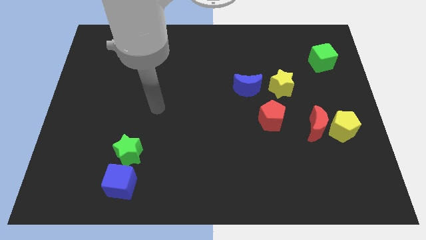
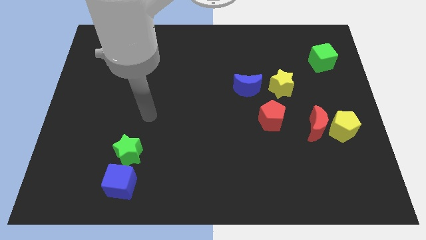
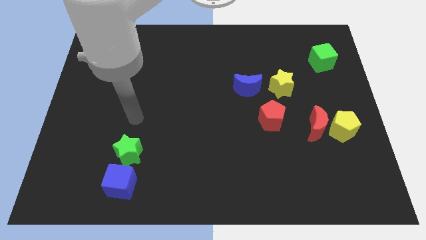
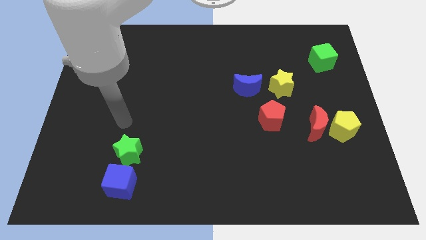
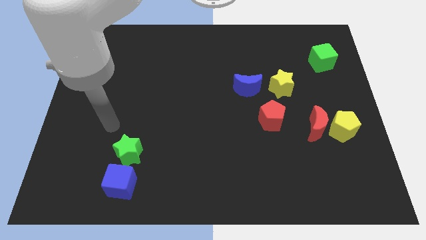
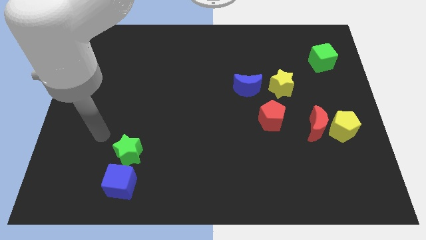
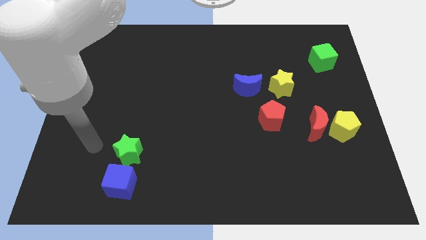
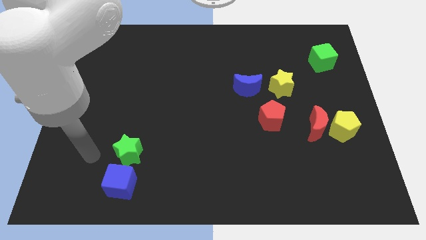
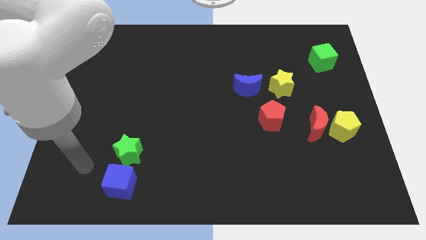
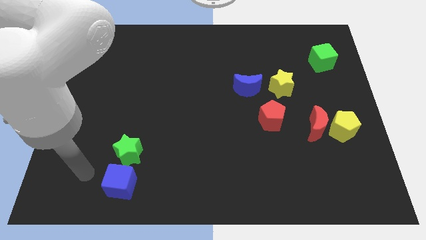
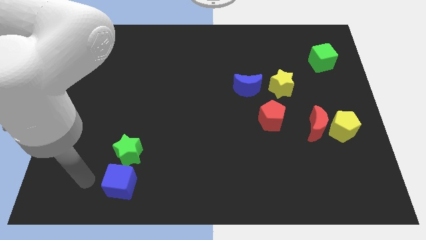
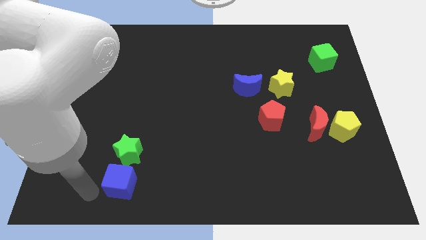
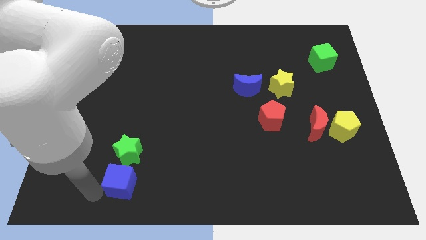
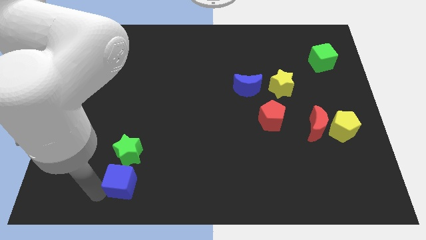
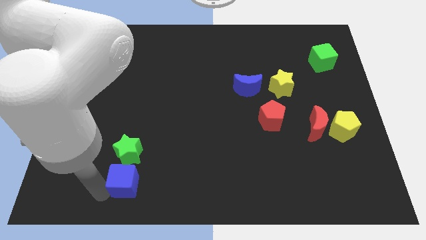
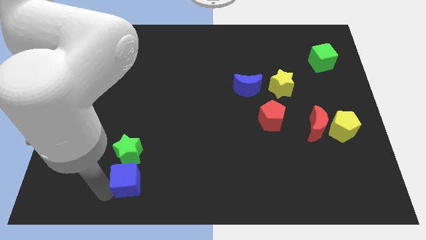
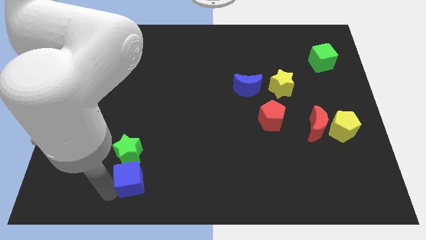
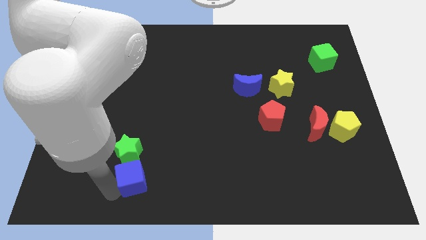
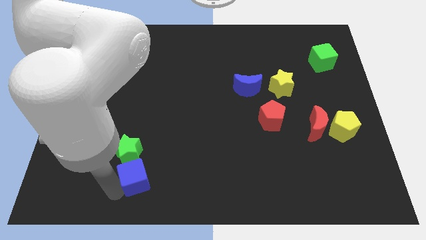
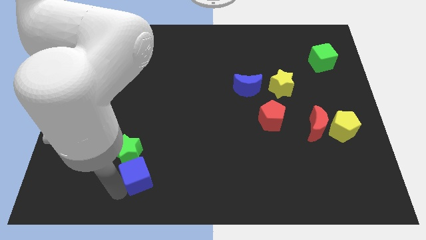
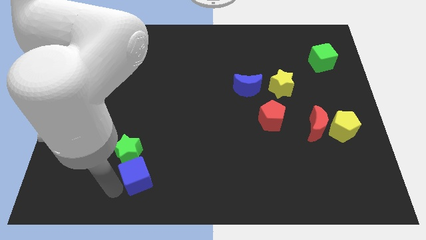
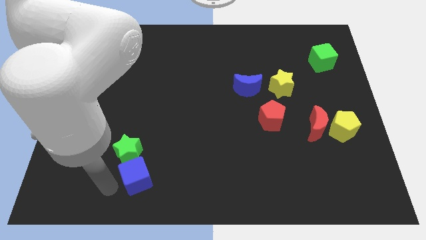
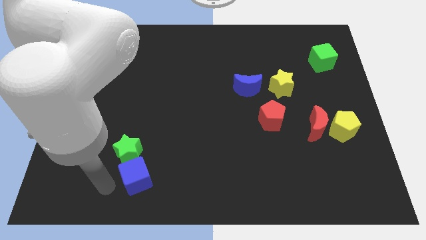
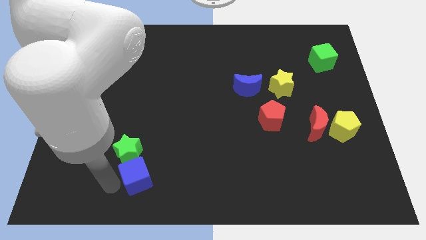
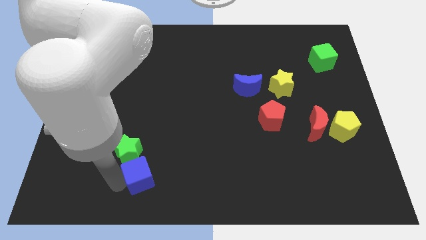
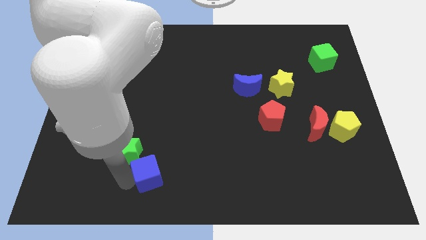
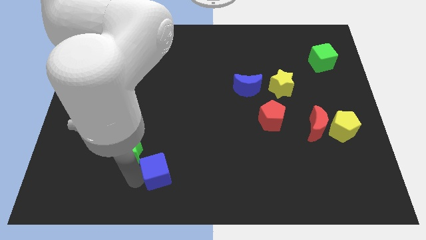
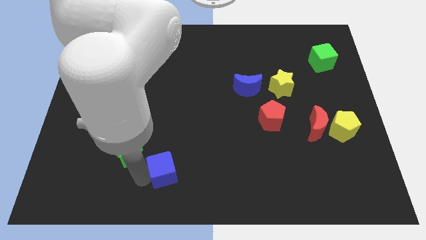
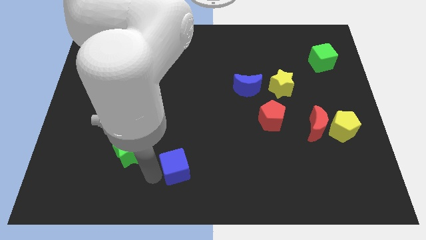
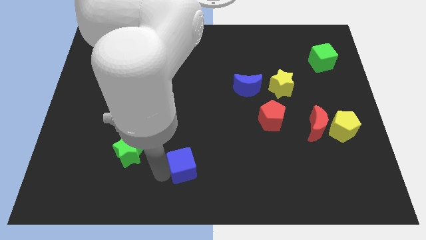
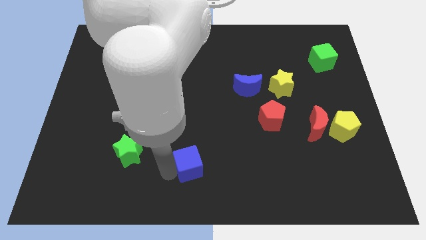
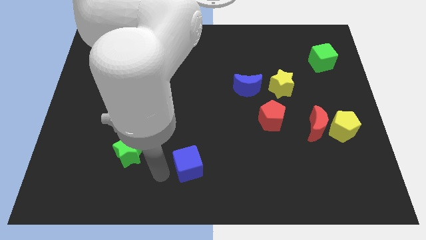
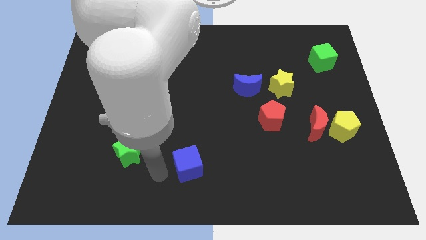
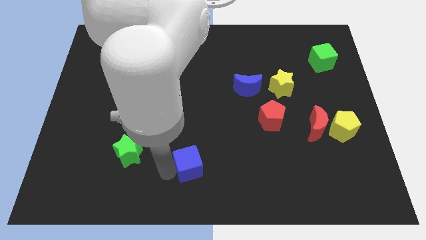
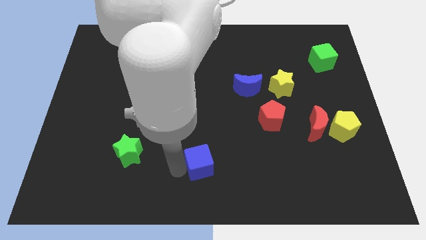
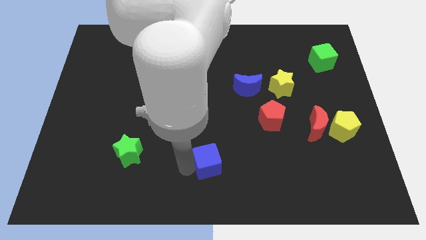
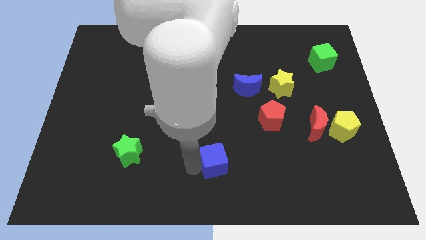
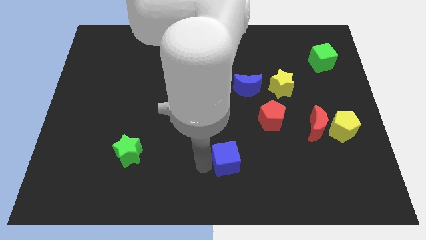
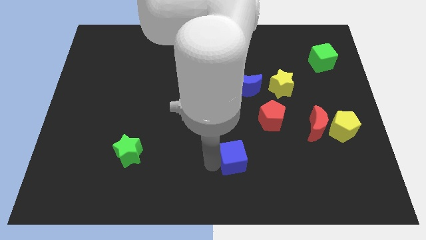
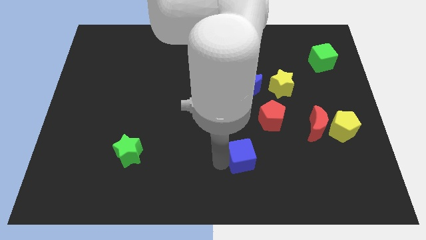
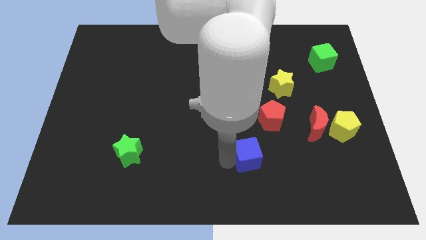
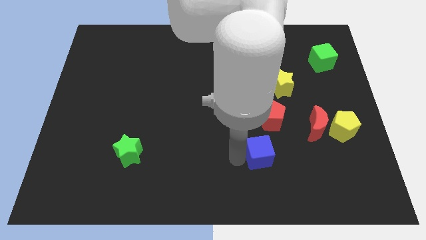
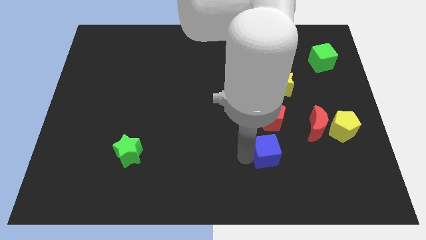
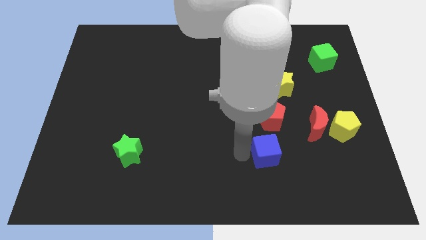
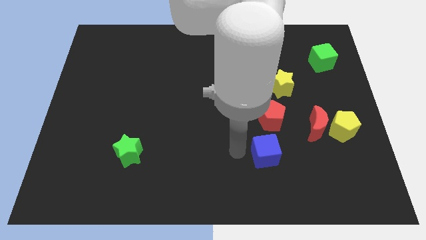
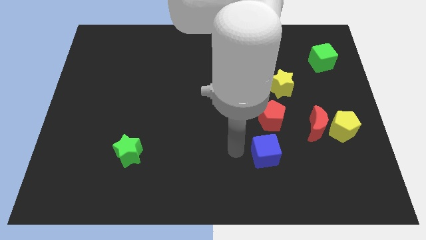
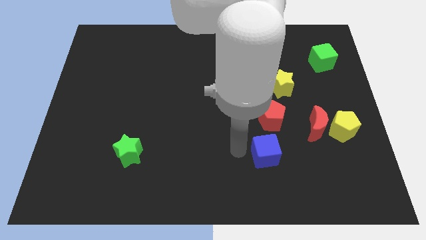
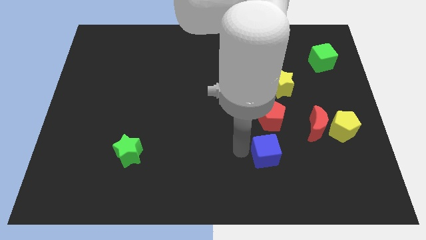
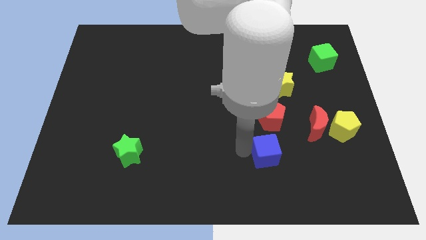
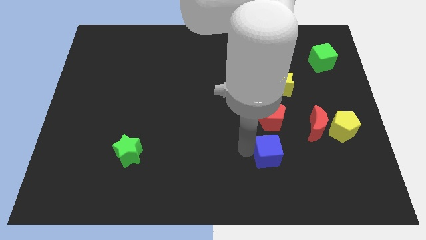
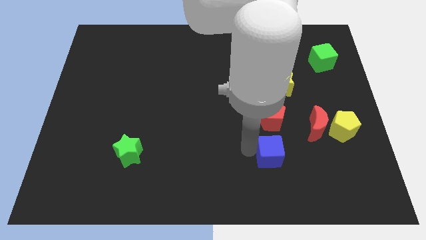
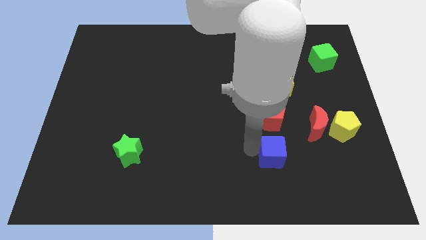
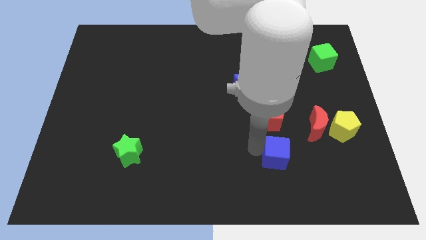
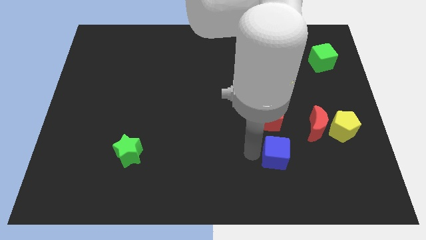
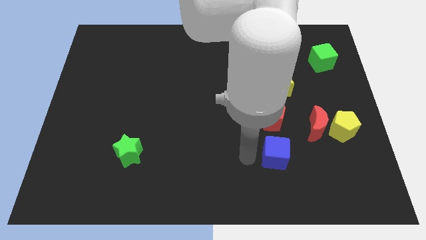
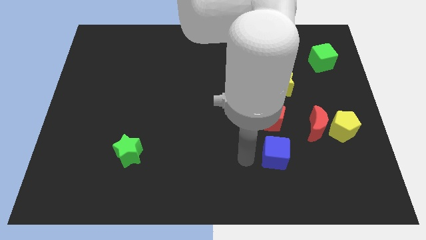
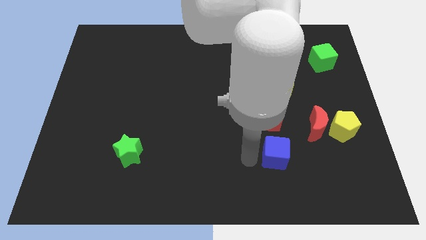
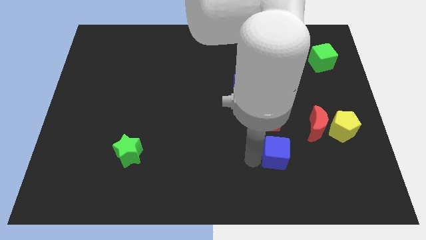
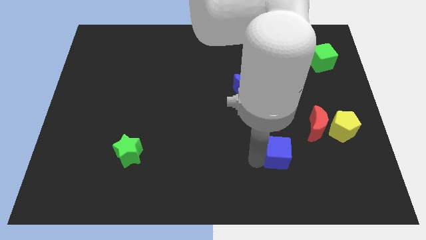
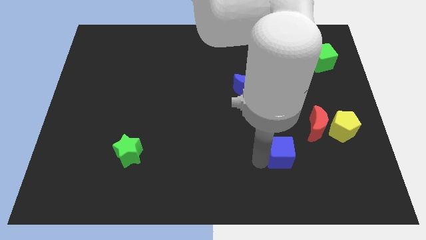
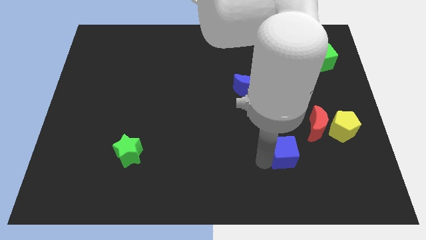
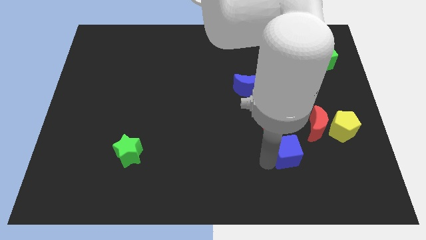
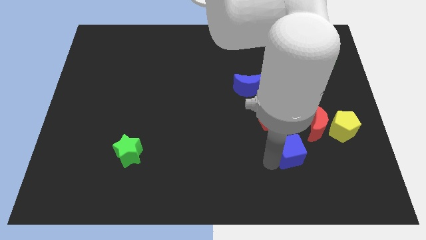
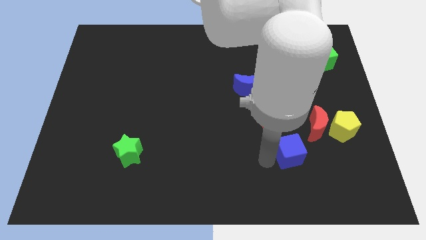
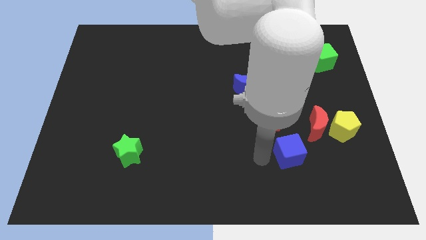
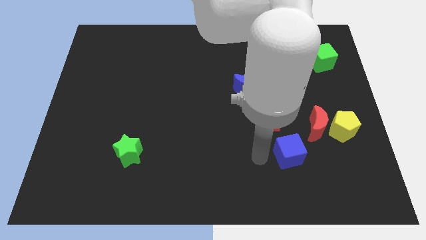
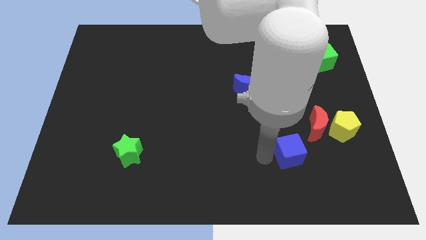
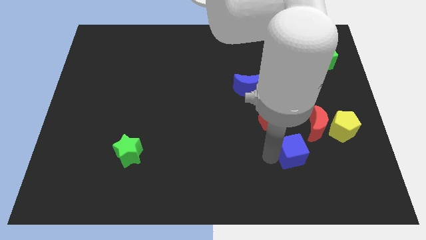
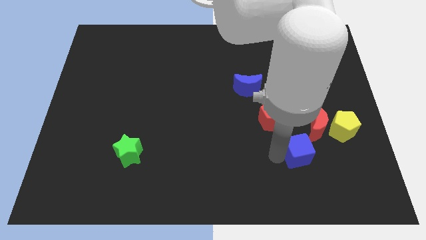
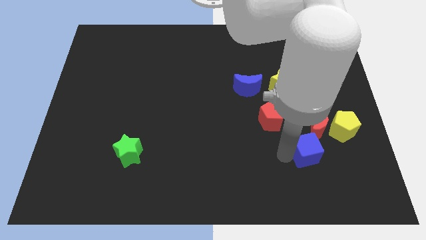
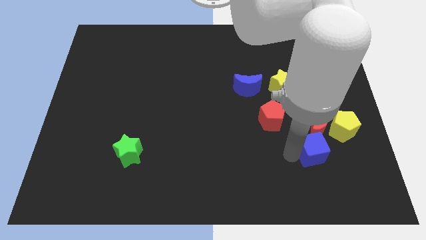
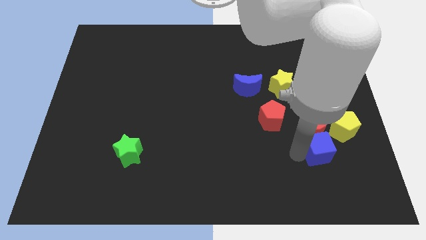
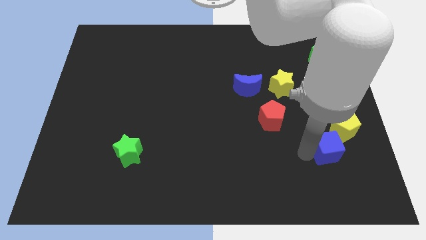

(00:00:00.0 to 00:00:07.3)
move the blue cube to the bottom right side of the red moon
